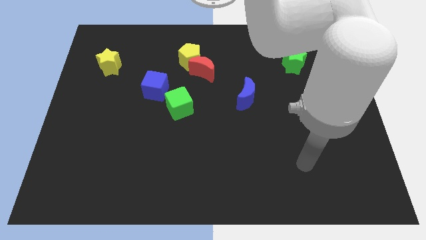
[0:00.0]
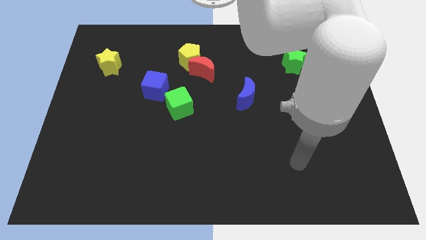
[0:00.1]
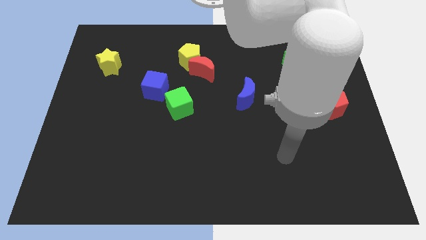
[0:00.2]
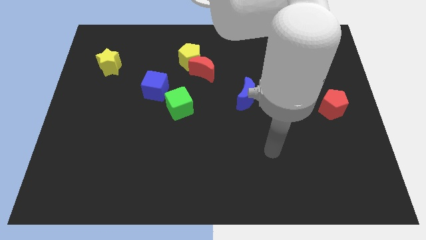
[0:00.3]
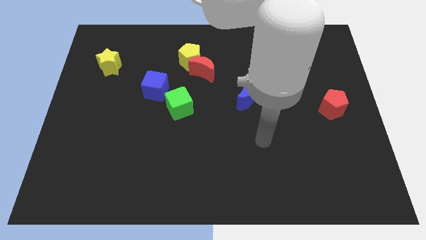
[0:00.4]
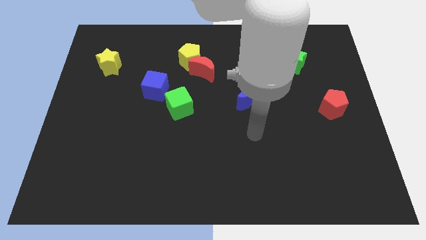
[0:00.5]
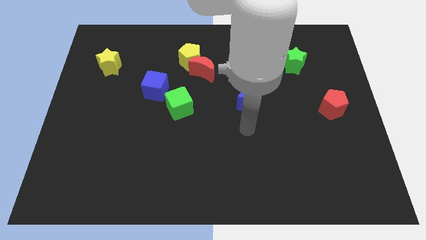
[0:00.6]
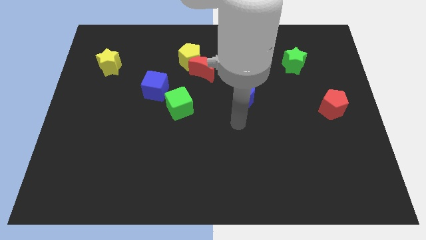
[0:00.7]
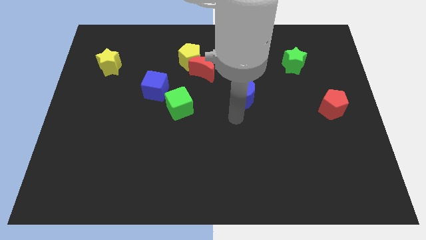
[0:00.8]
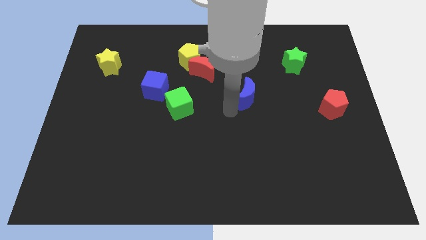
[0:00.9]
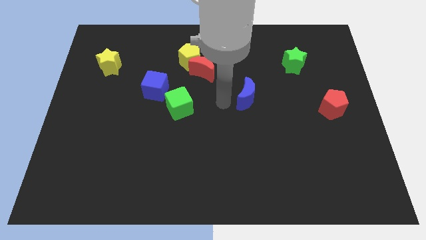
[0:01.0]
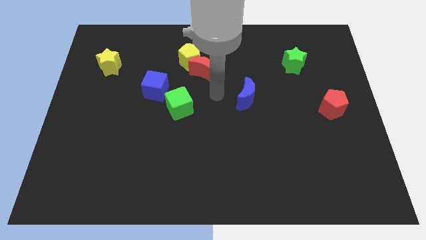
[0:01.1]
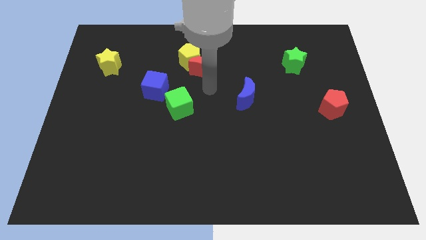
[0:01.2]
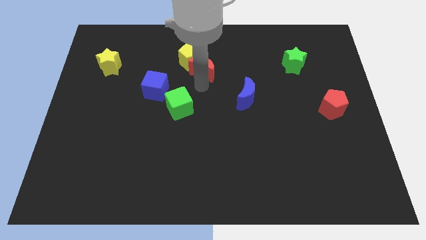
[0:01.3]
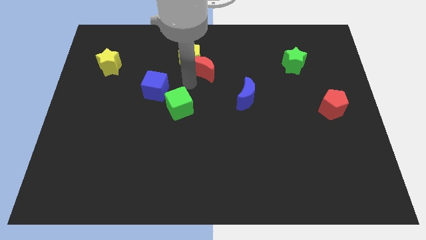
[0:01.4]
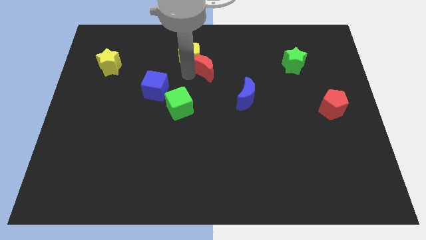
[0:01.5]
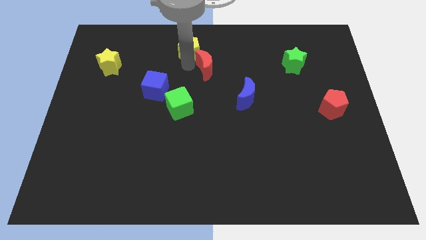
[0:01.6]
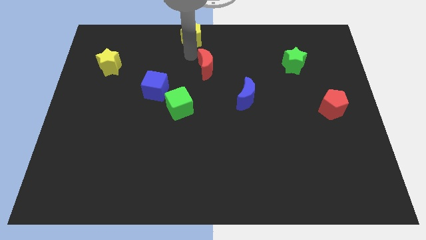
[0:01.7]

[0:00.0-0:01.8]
move the red moon away from the yellow pentagon

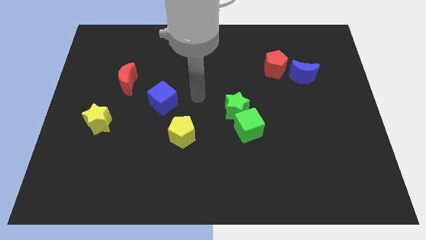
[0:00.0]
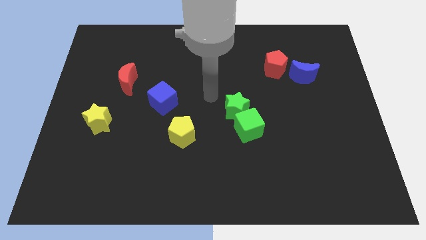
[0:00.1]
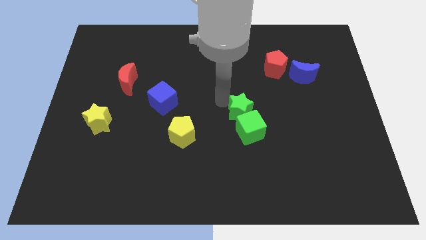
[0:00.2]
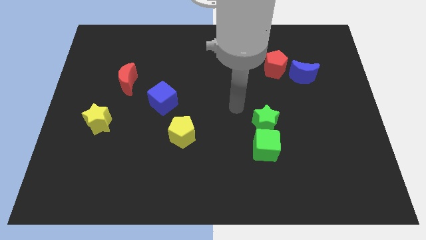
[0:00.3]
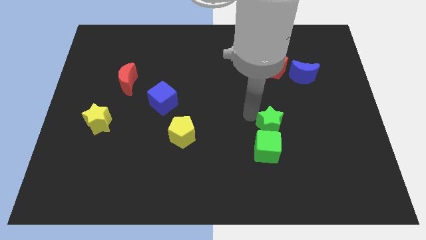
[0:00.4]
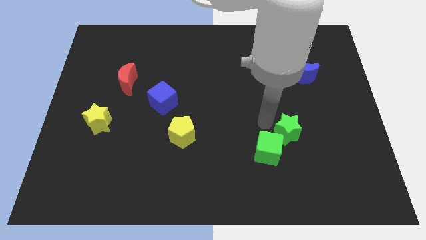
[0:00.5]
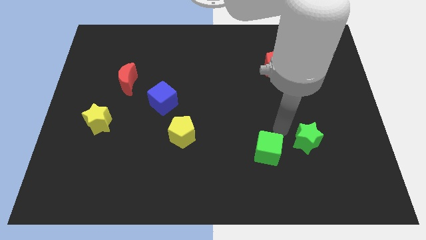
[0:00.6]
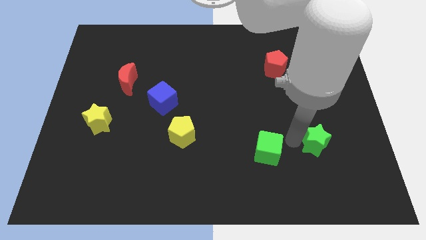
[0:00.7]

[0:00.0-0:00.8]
separate the green cube from the green star

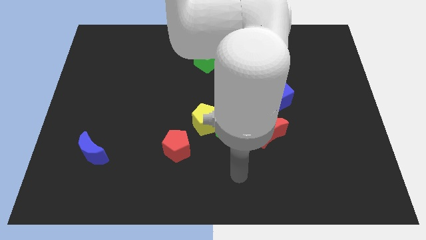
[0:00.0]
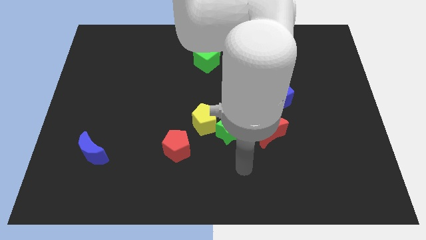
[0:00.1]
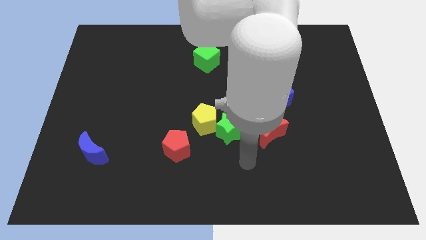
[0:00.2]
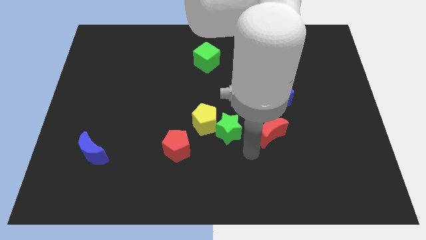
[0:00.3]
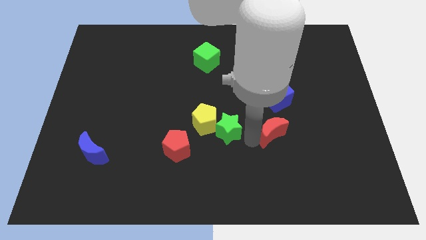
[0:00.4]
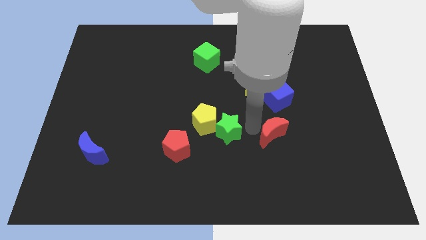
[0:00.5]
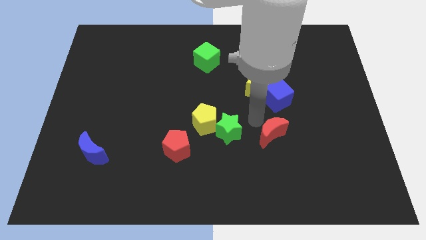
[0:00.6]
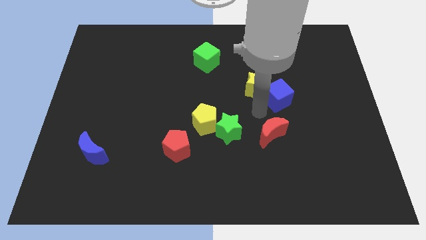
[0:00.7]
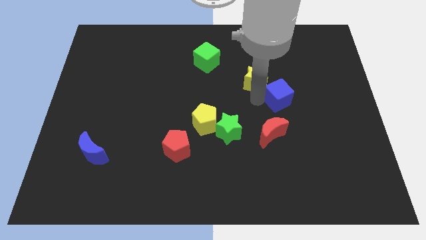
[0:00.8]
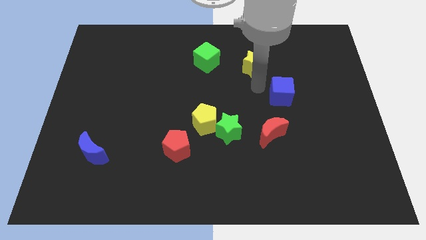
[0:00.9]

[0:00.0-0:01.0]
move the blue cube away from the yellow star

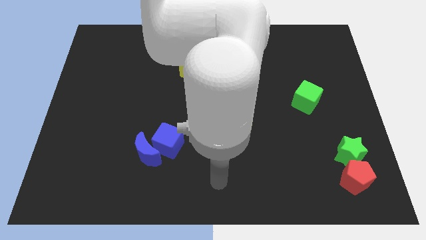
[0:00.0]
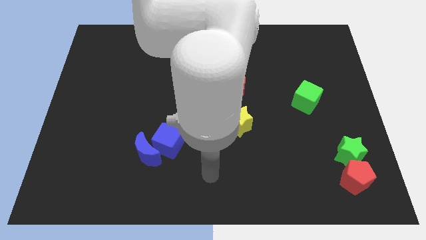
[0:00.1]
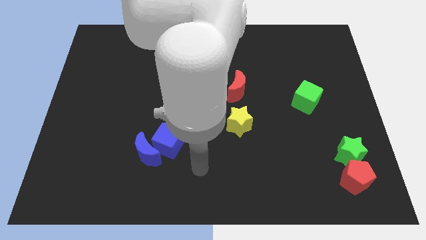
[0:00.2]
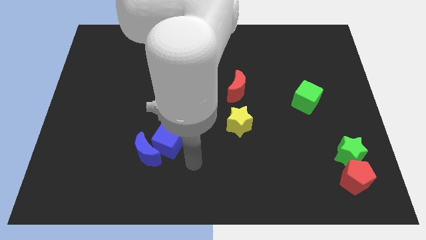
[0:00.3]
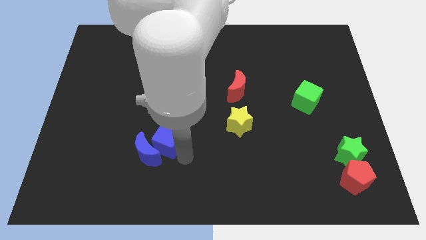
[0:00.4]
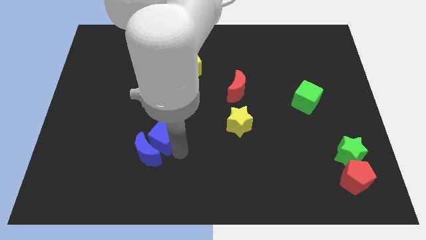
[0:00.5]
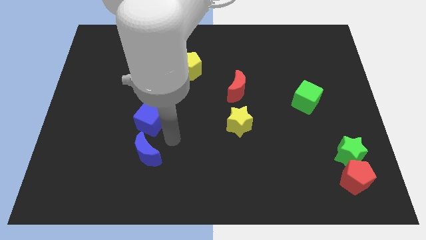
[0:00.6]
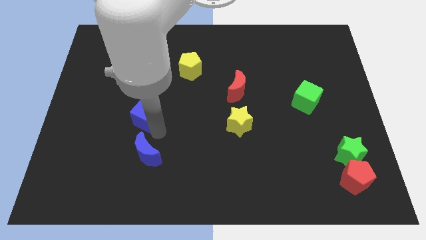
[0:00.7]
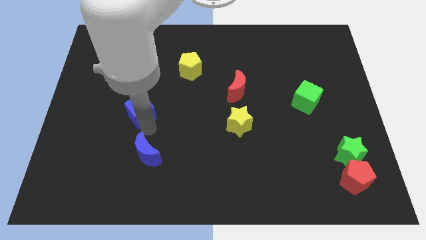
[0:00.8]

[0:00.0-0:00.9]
pull the blue moon apart from the blue cube

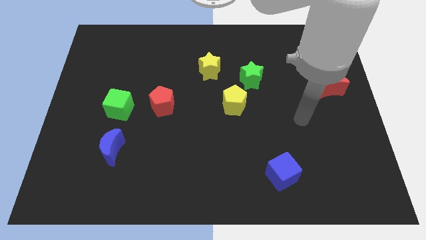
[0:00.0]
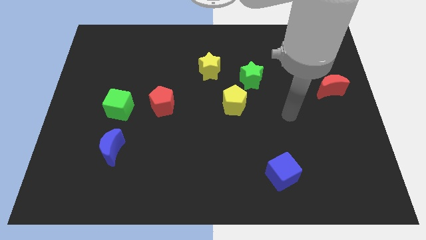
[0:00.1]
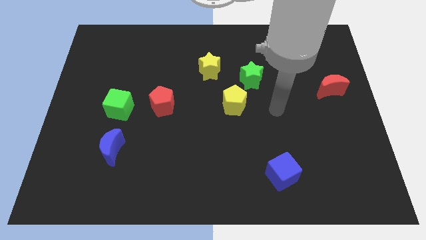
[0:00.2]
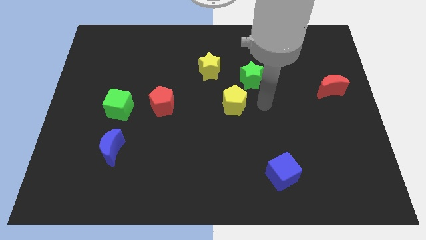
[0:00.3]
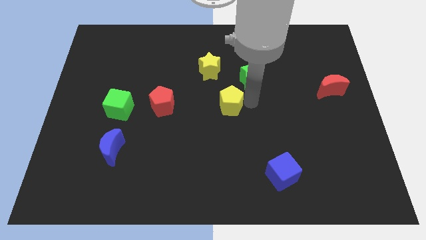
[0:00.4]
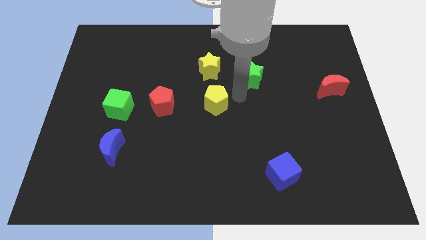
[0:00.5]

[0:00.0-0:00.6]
pull the green star apart from the yellow pentagon

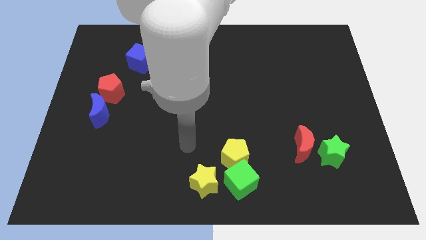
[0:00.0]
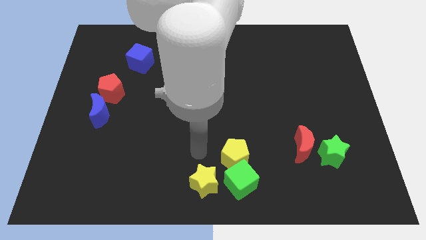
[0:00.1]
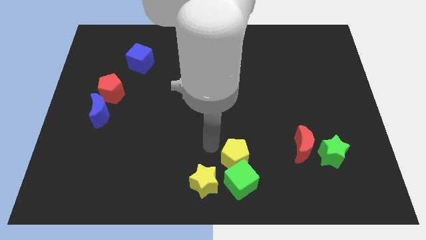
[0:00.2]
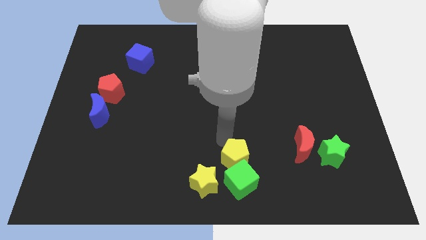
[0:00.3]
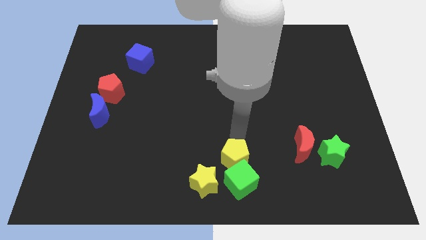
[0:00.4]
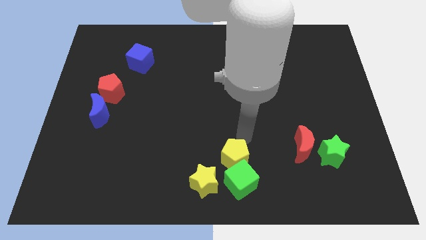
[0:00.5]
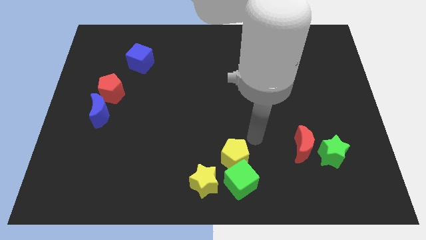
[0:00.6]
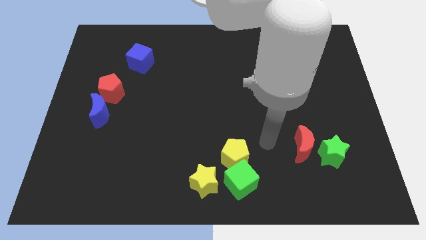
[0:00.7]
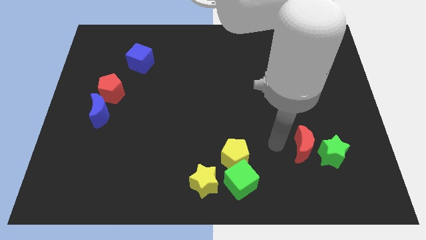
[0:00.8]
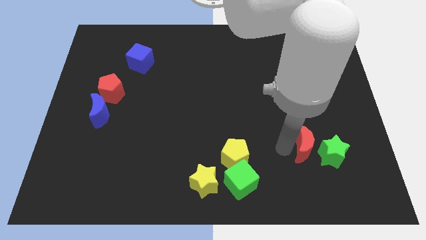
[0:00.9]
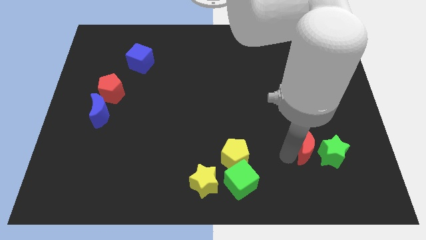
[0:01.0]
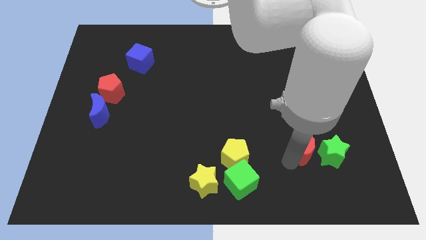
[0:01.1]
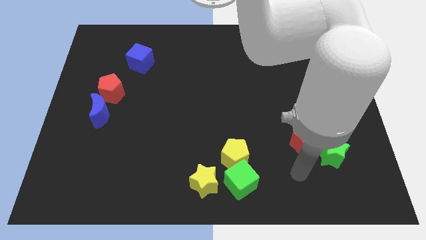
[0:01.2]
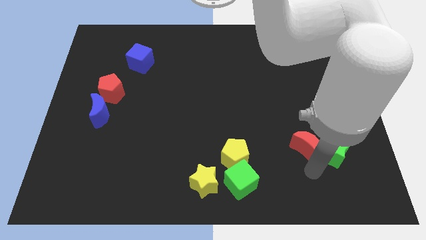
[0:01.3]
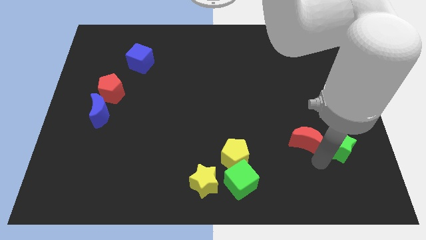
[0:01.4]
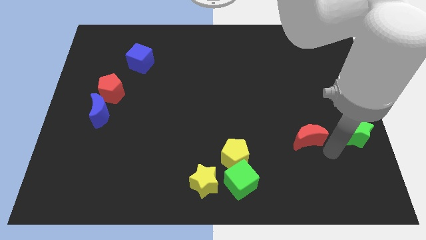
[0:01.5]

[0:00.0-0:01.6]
pull the red moon apart from the green star

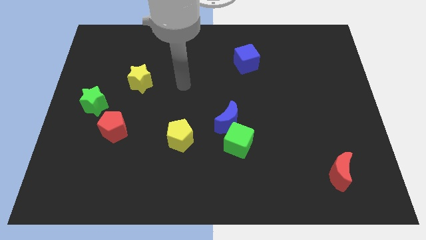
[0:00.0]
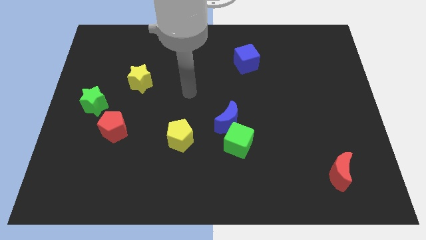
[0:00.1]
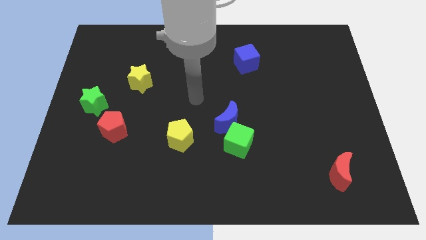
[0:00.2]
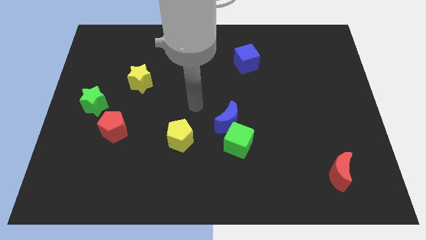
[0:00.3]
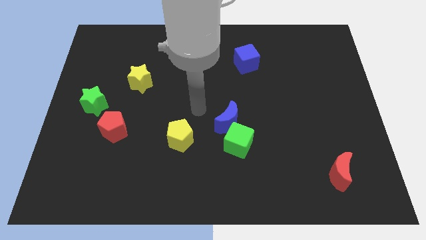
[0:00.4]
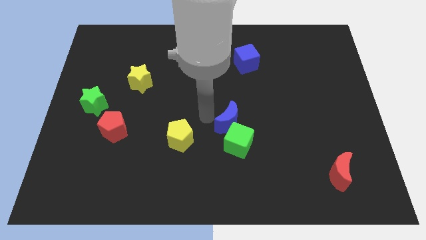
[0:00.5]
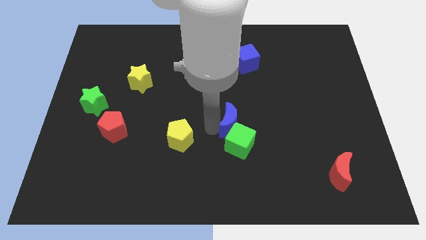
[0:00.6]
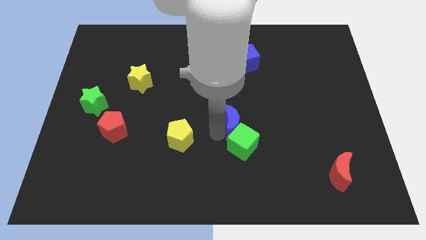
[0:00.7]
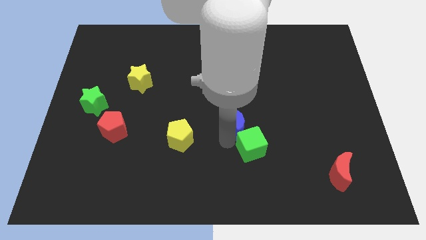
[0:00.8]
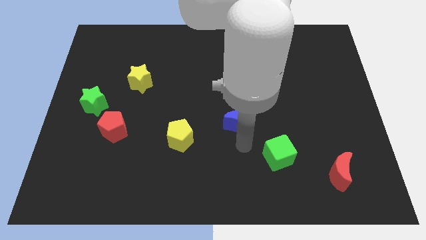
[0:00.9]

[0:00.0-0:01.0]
move the blue moon away from the green cube

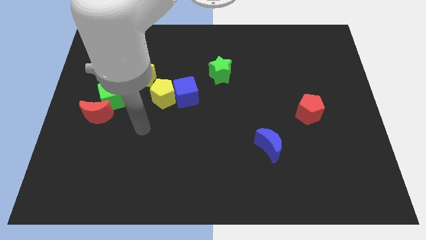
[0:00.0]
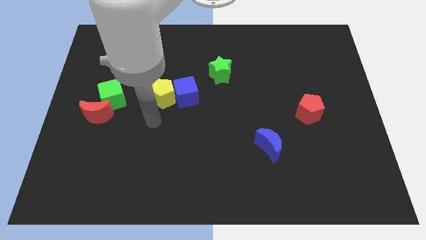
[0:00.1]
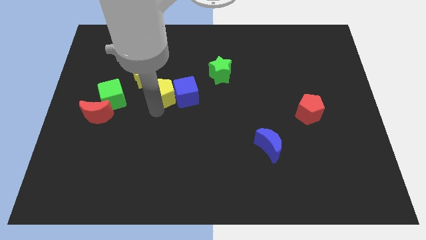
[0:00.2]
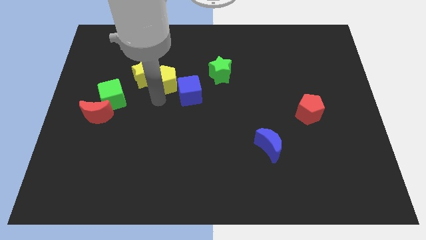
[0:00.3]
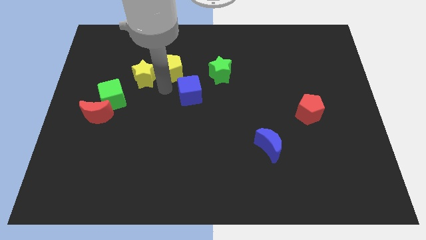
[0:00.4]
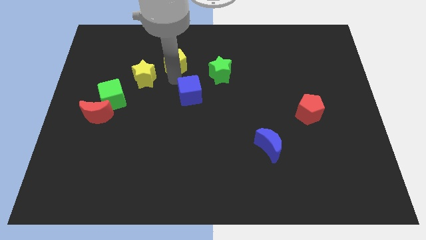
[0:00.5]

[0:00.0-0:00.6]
move the blue cube away from the yellow pentagon

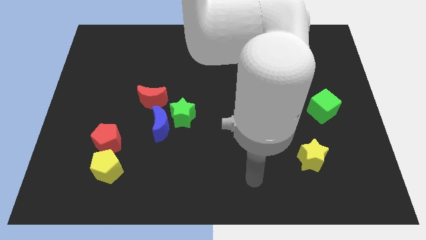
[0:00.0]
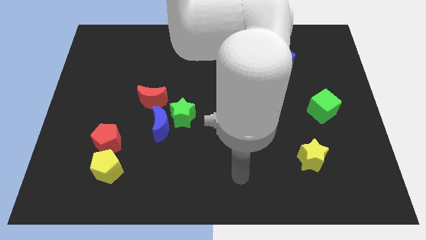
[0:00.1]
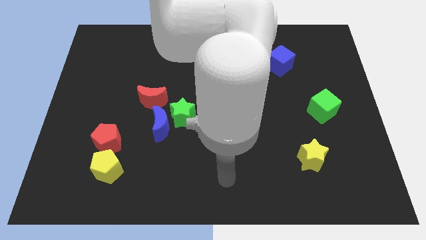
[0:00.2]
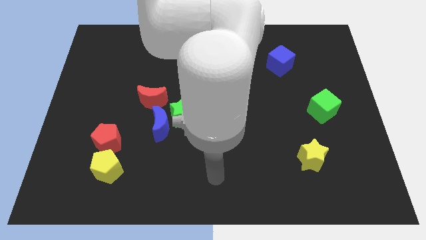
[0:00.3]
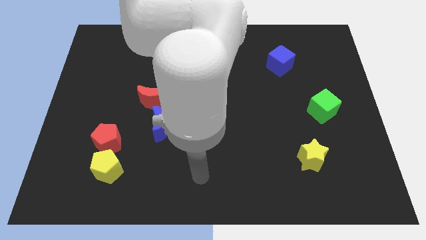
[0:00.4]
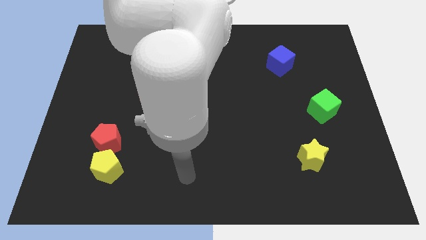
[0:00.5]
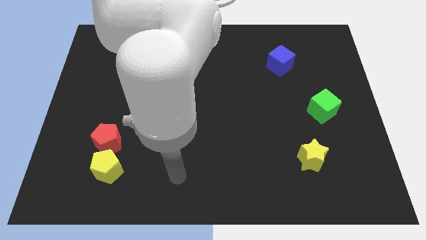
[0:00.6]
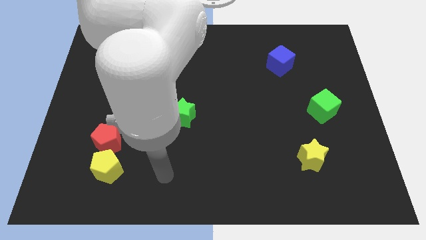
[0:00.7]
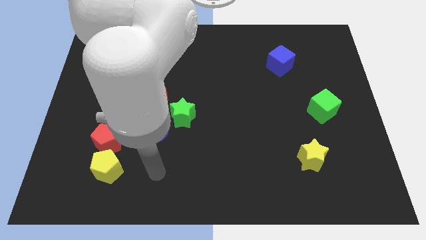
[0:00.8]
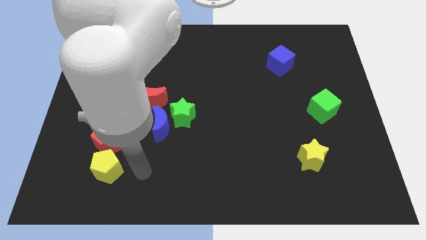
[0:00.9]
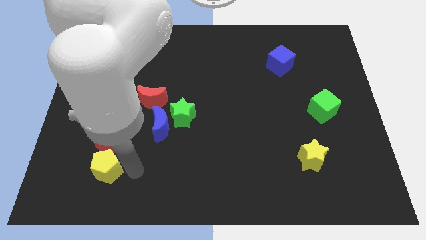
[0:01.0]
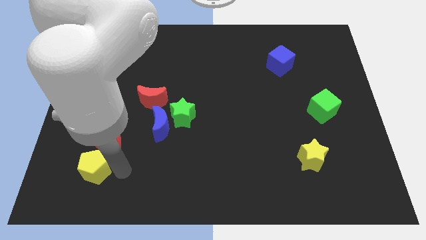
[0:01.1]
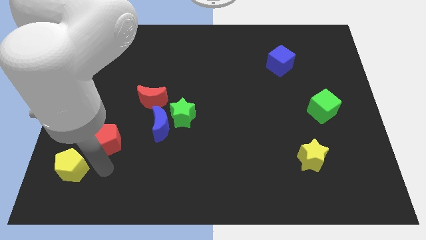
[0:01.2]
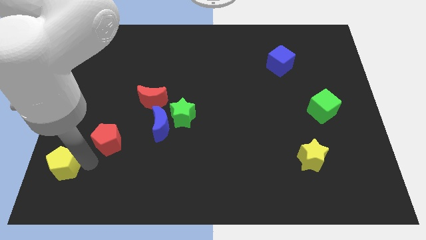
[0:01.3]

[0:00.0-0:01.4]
pull the red pentagon apart from the yellow pentagon
